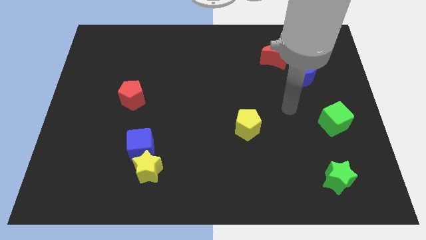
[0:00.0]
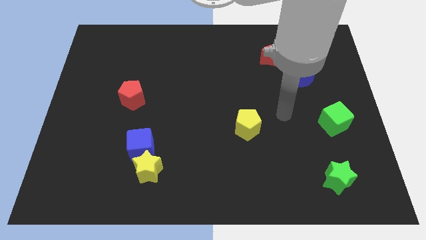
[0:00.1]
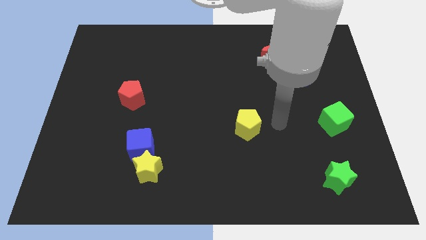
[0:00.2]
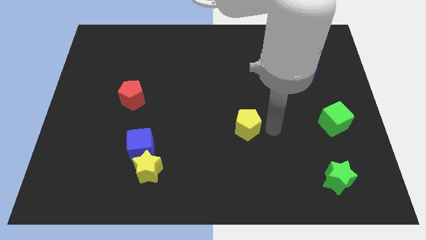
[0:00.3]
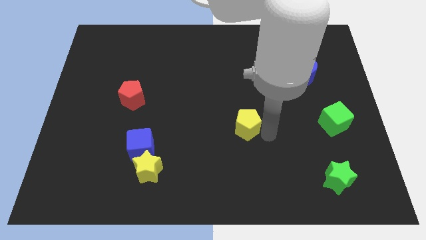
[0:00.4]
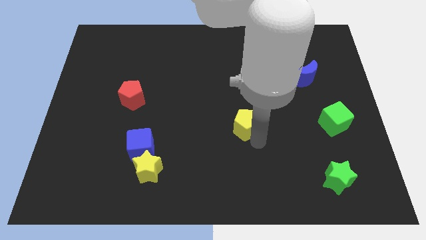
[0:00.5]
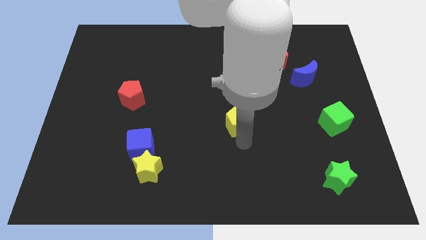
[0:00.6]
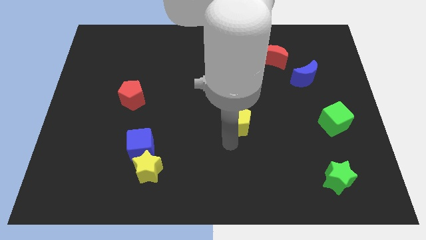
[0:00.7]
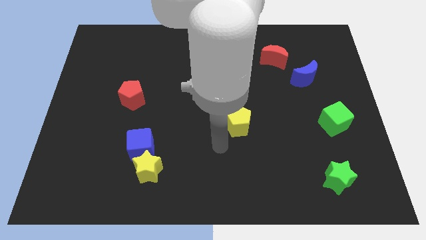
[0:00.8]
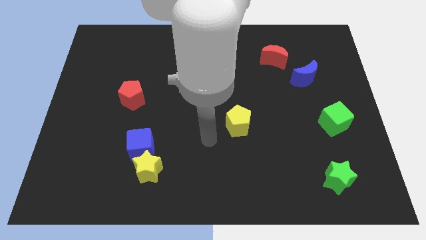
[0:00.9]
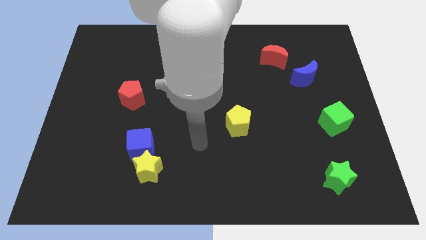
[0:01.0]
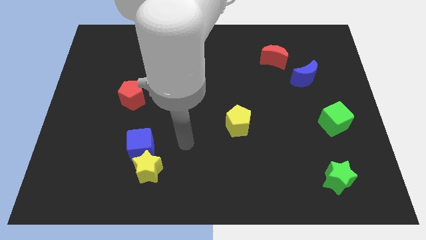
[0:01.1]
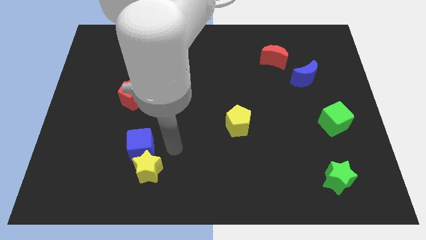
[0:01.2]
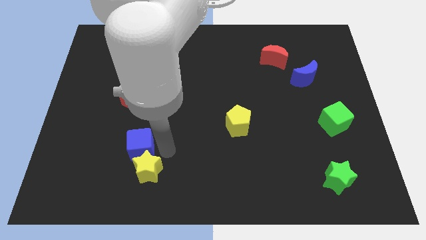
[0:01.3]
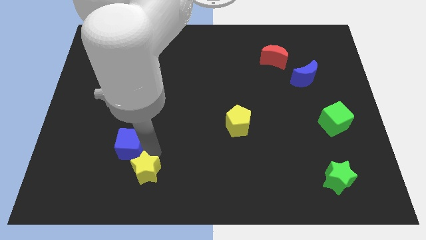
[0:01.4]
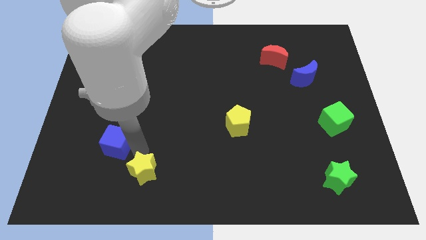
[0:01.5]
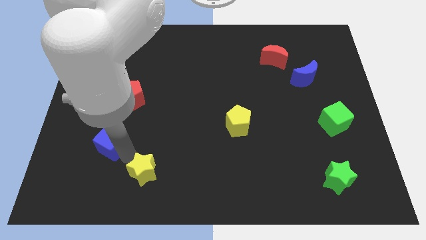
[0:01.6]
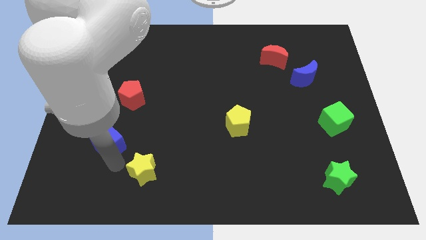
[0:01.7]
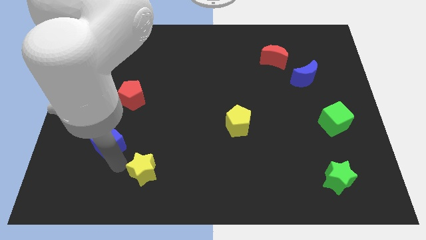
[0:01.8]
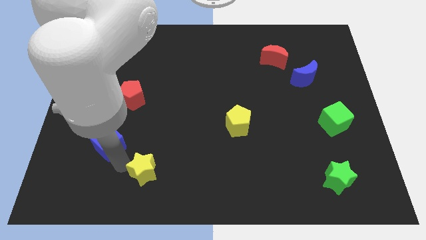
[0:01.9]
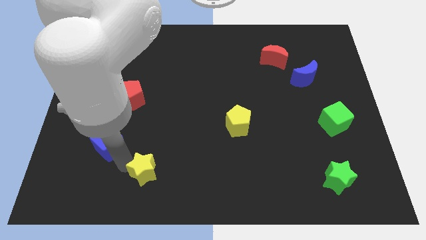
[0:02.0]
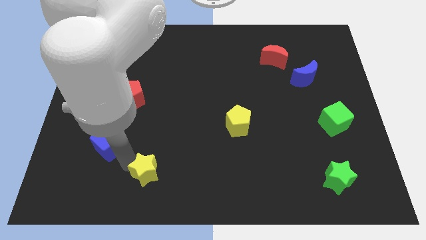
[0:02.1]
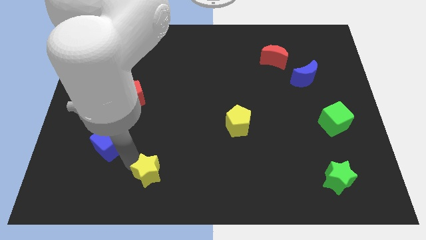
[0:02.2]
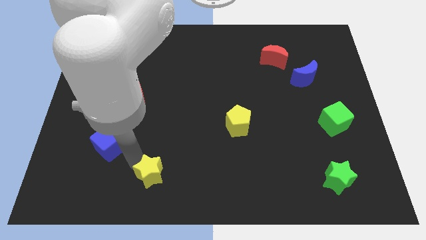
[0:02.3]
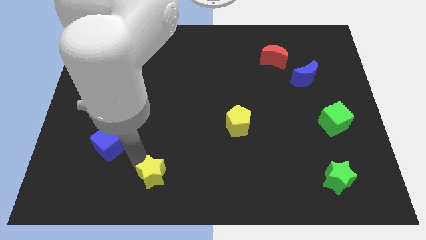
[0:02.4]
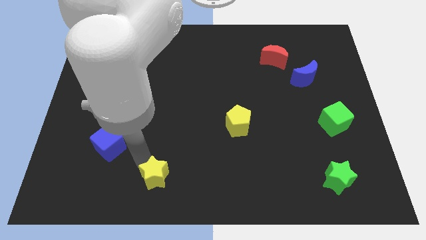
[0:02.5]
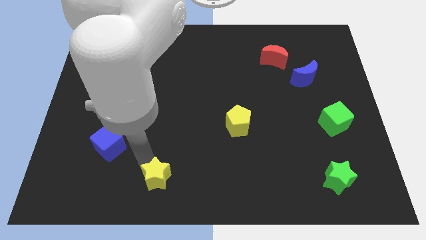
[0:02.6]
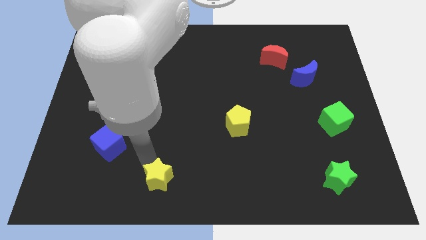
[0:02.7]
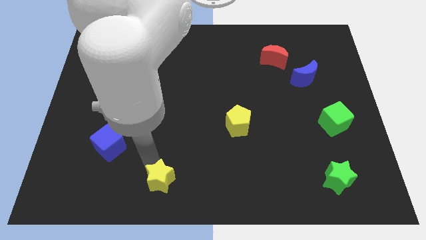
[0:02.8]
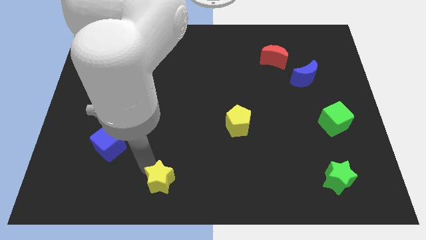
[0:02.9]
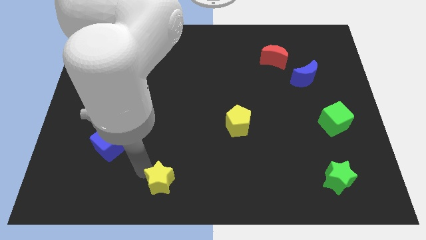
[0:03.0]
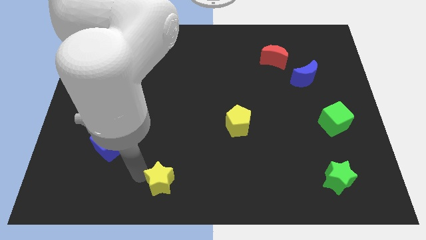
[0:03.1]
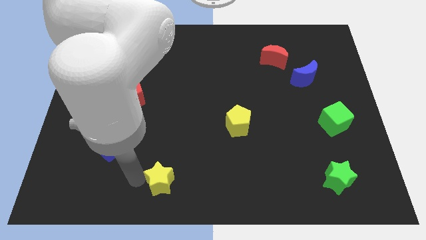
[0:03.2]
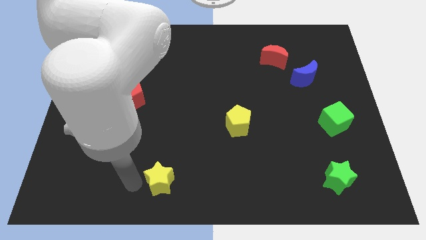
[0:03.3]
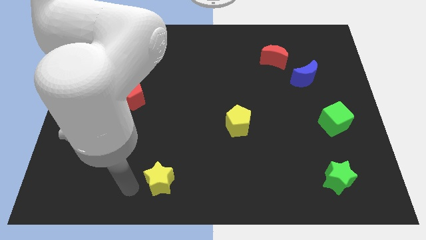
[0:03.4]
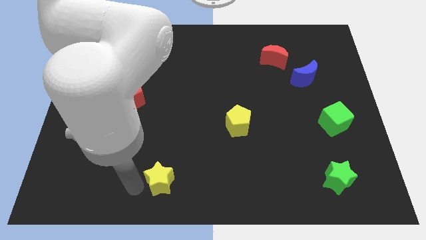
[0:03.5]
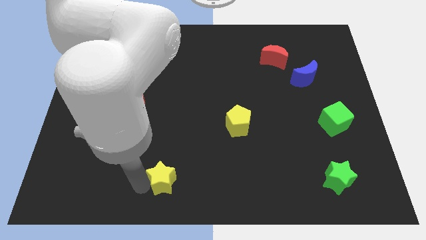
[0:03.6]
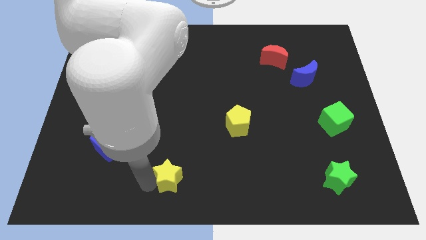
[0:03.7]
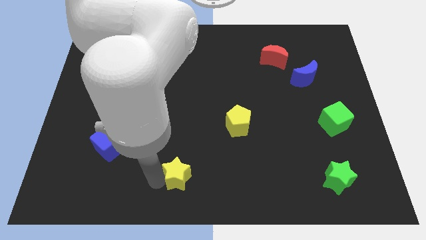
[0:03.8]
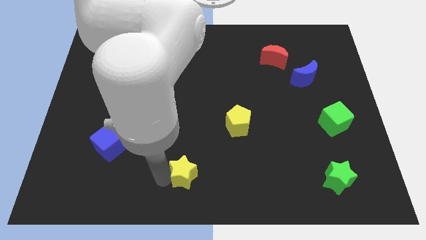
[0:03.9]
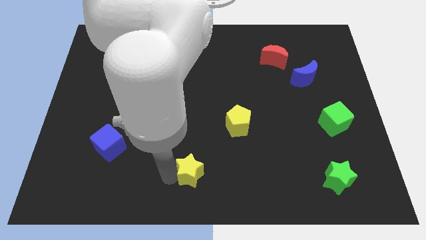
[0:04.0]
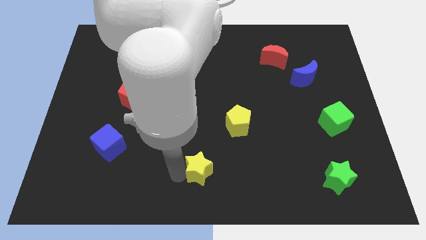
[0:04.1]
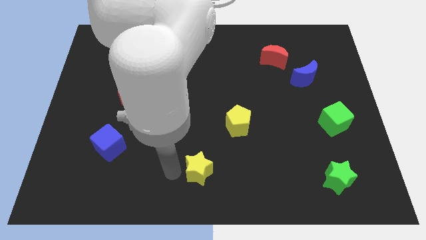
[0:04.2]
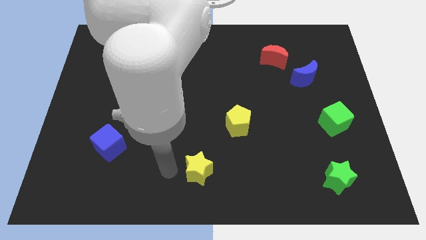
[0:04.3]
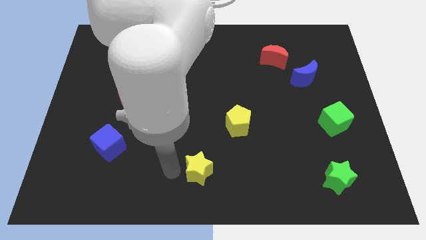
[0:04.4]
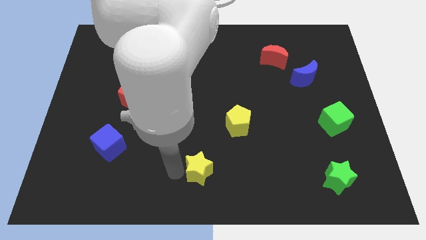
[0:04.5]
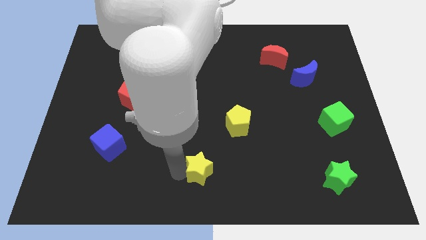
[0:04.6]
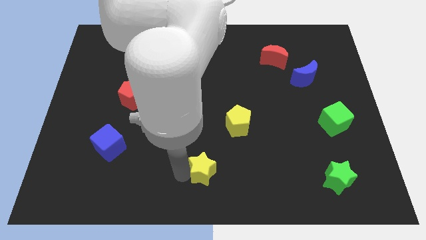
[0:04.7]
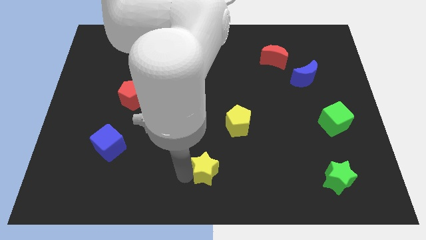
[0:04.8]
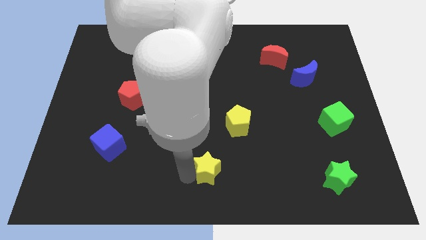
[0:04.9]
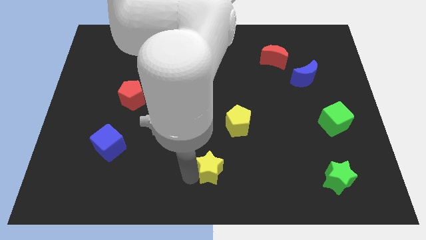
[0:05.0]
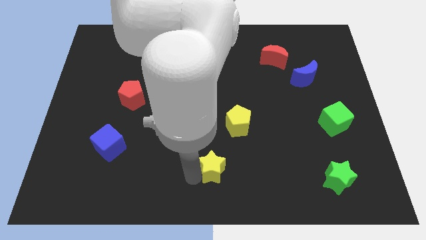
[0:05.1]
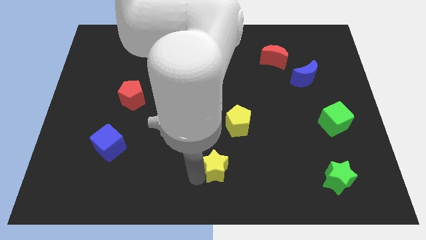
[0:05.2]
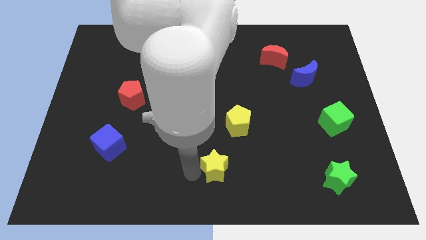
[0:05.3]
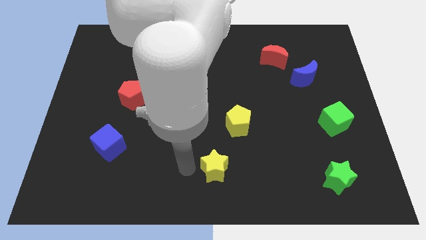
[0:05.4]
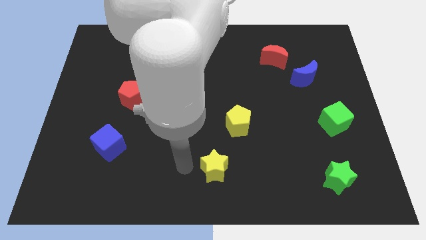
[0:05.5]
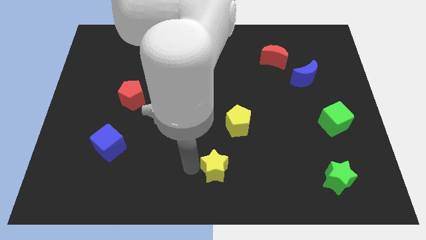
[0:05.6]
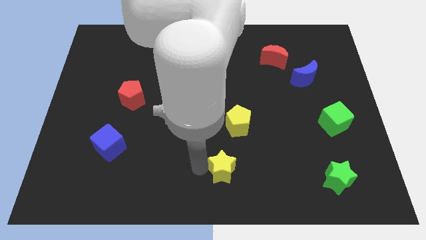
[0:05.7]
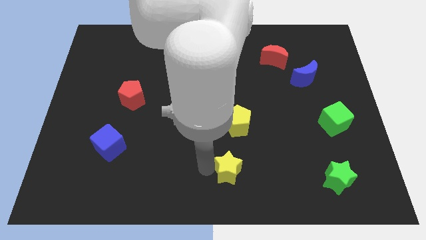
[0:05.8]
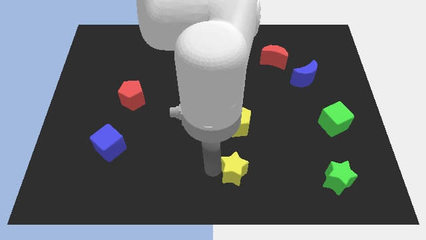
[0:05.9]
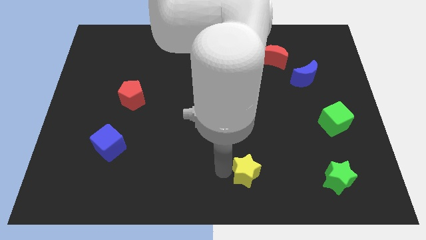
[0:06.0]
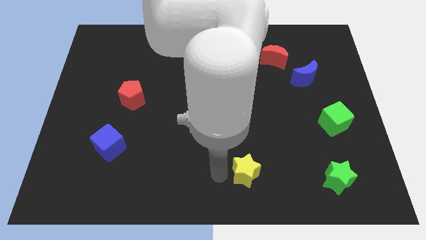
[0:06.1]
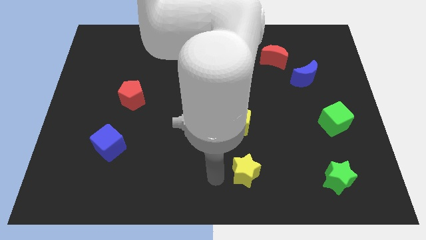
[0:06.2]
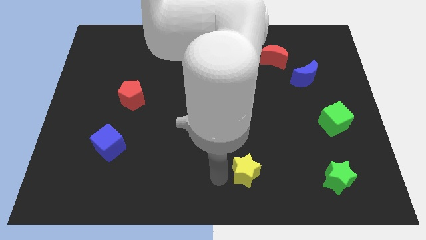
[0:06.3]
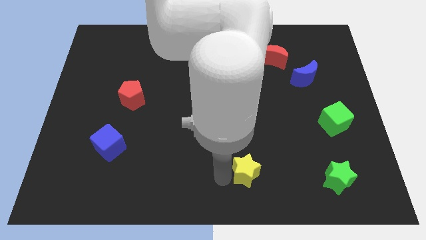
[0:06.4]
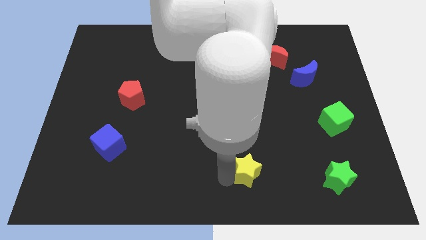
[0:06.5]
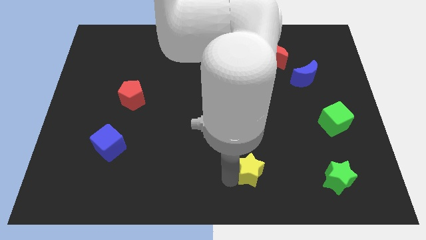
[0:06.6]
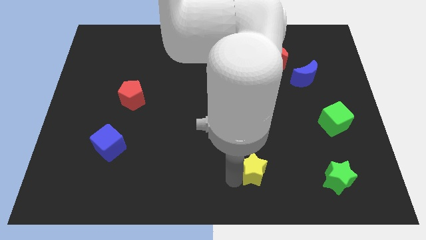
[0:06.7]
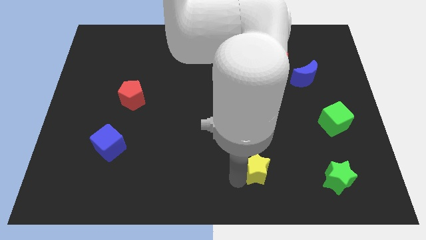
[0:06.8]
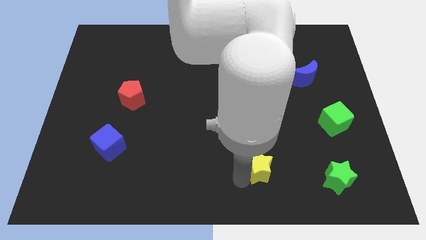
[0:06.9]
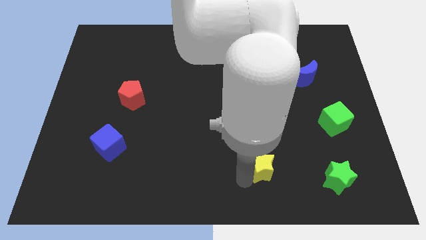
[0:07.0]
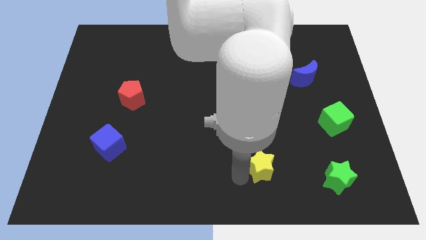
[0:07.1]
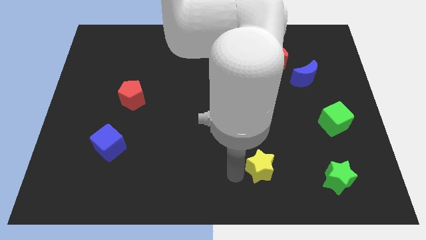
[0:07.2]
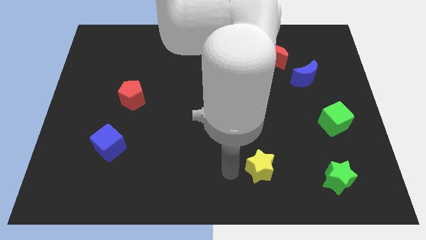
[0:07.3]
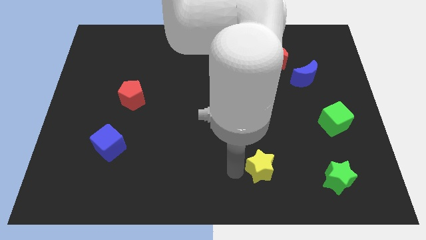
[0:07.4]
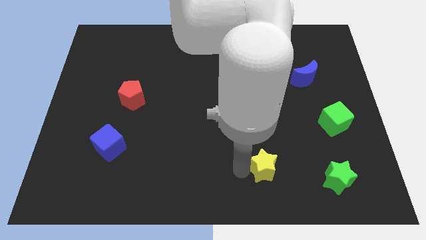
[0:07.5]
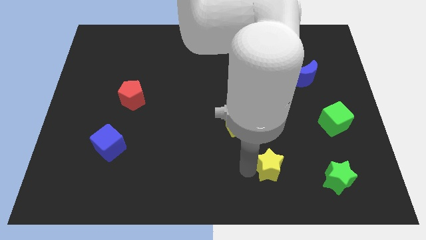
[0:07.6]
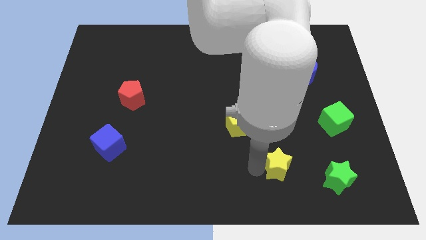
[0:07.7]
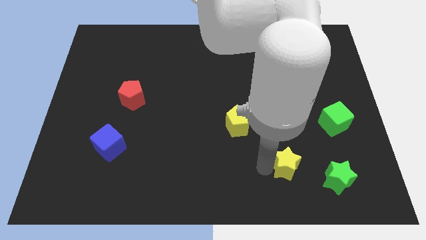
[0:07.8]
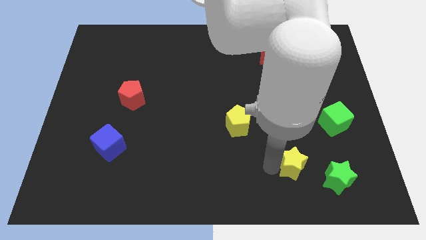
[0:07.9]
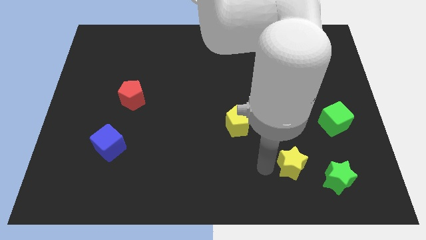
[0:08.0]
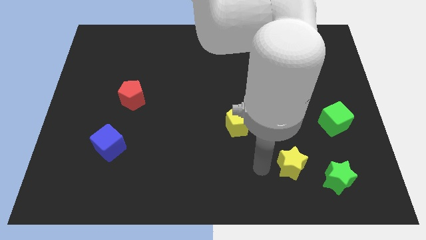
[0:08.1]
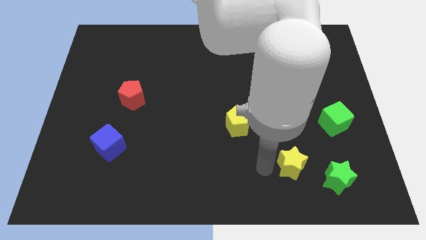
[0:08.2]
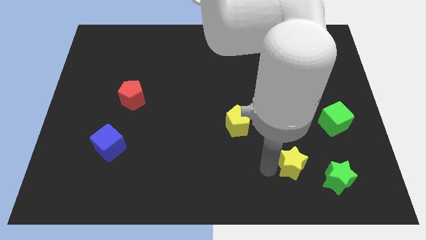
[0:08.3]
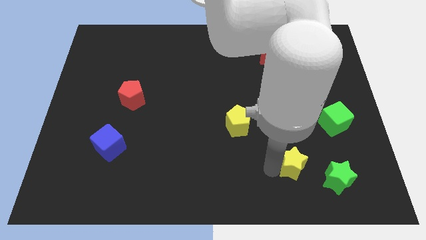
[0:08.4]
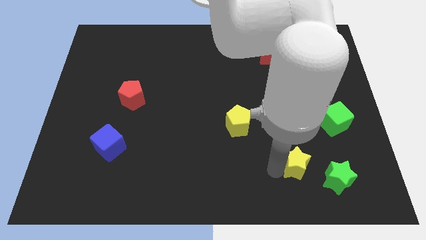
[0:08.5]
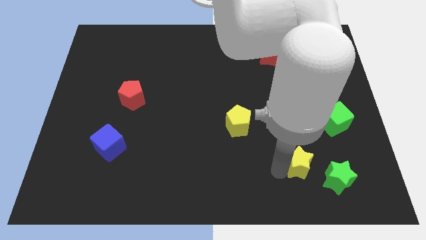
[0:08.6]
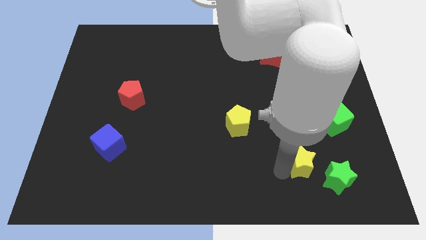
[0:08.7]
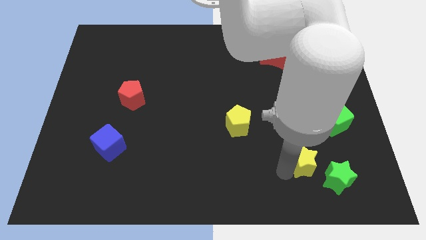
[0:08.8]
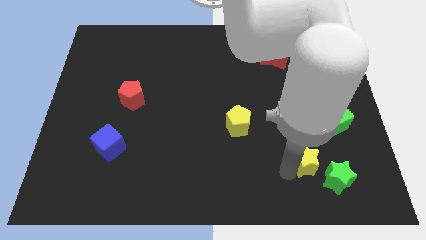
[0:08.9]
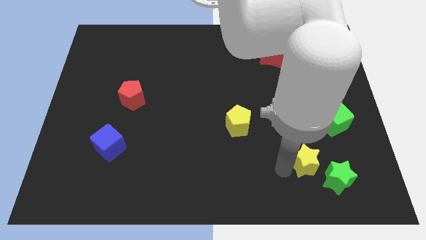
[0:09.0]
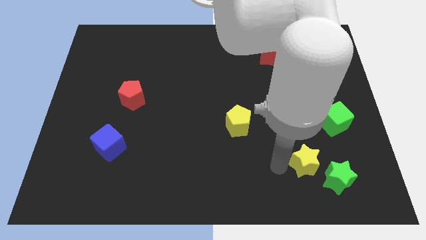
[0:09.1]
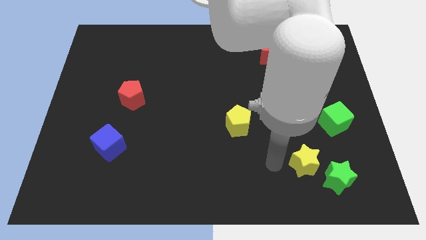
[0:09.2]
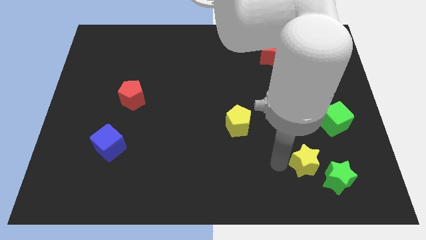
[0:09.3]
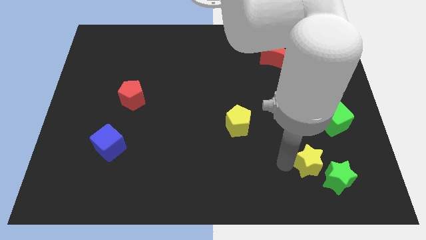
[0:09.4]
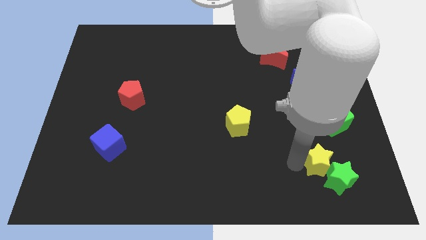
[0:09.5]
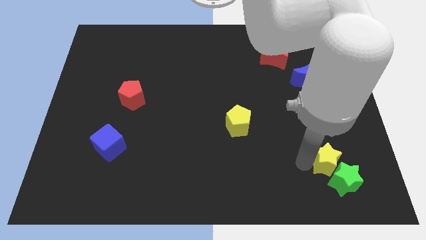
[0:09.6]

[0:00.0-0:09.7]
put the yellow star to the bottom side of the green cube
